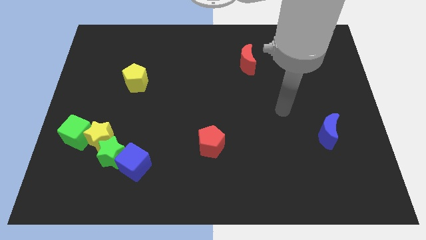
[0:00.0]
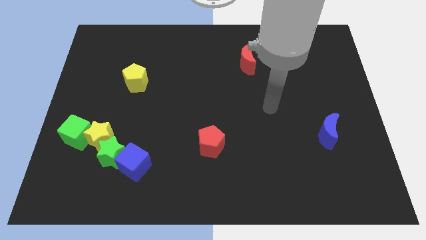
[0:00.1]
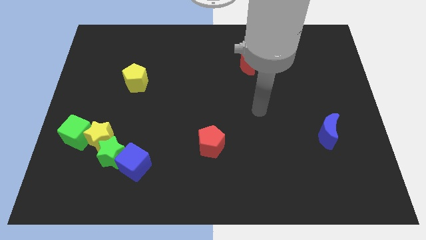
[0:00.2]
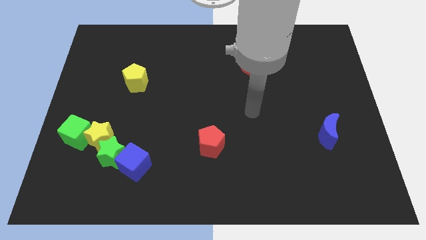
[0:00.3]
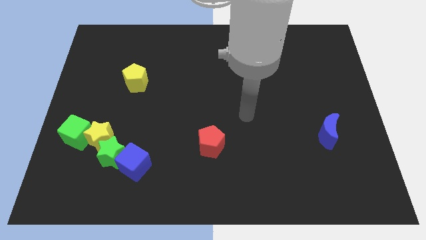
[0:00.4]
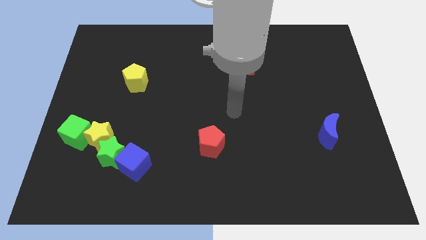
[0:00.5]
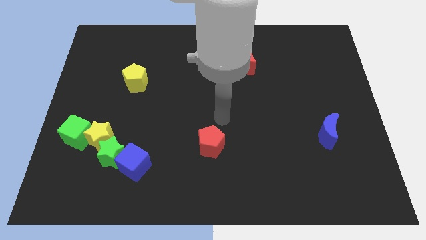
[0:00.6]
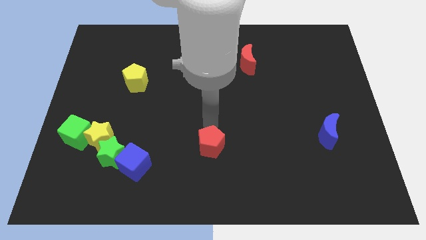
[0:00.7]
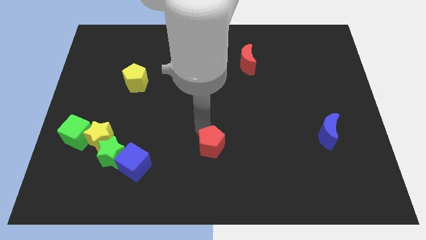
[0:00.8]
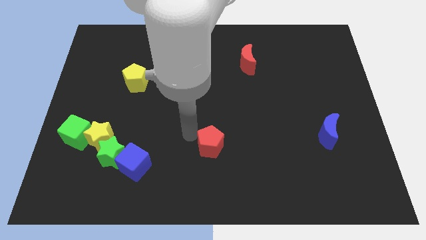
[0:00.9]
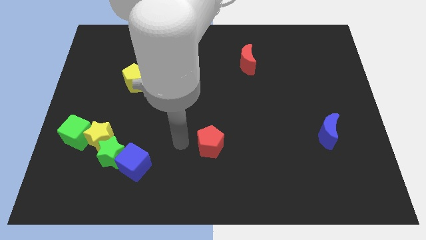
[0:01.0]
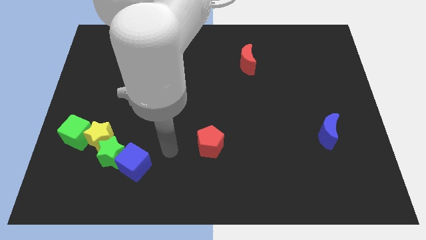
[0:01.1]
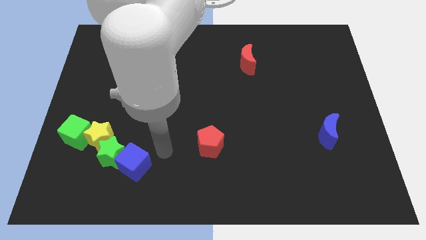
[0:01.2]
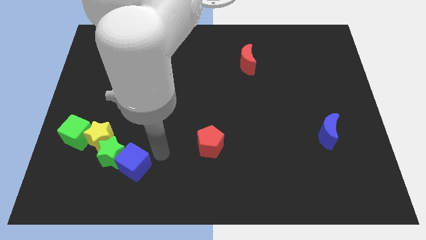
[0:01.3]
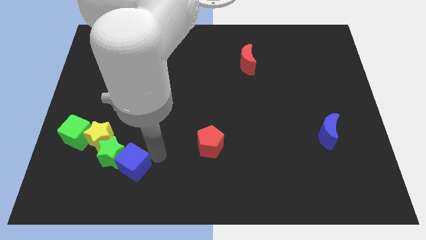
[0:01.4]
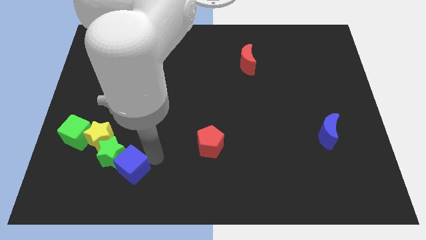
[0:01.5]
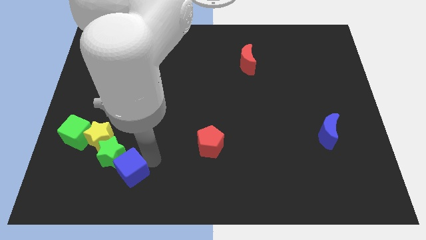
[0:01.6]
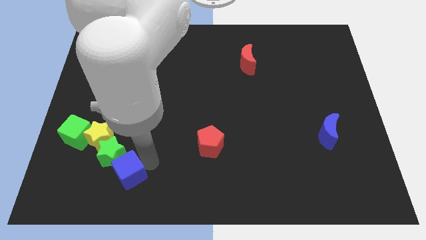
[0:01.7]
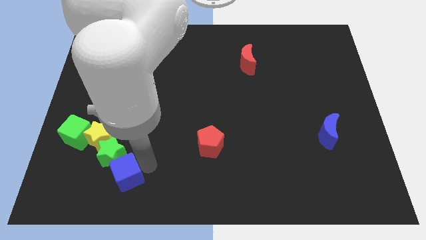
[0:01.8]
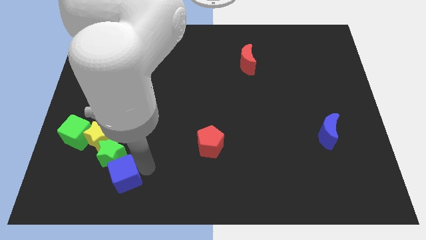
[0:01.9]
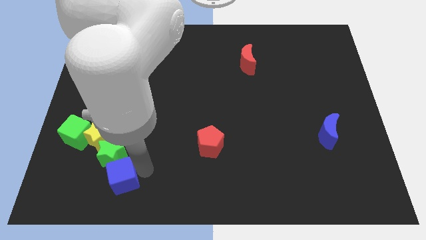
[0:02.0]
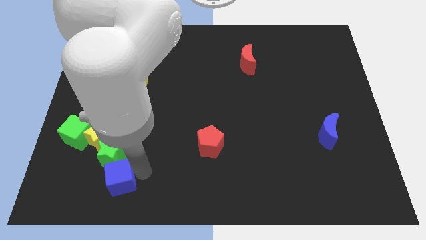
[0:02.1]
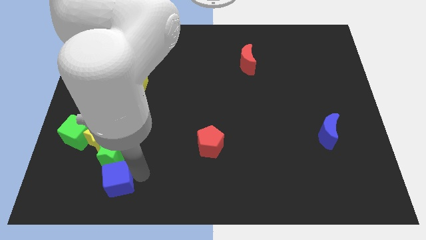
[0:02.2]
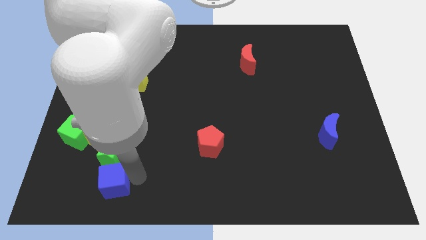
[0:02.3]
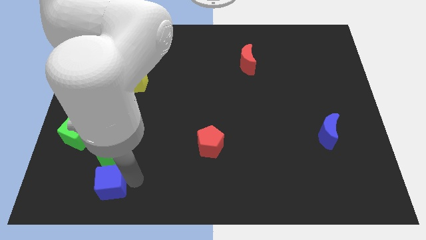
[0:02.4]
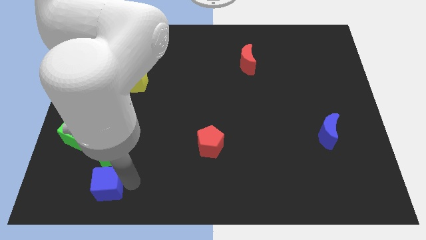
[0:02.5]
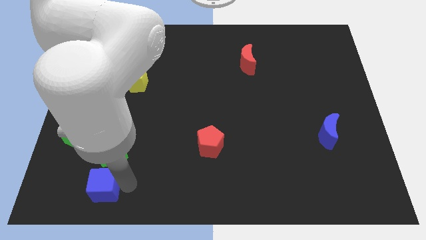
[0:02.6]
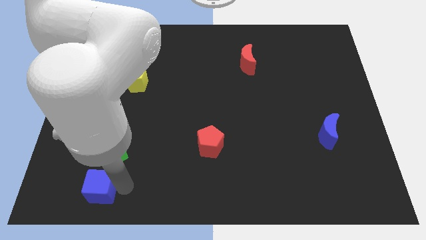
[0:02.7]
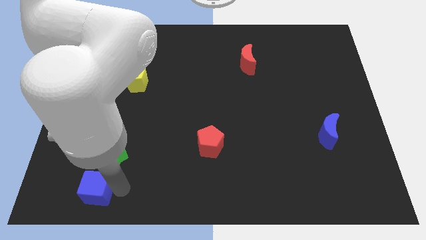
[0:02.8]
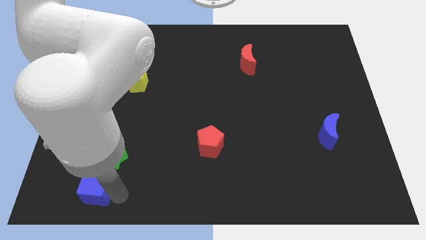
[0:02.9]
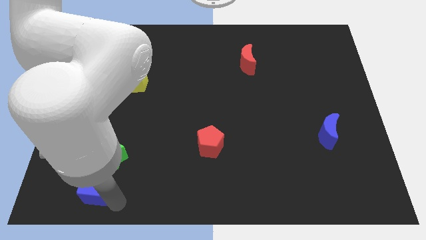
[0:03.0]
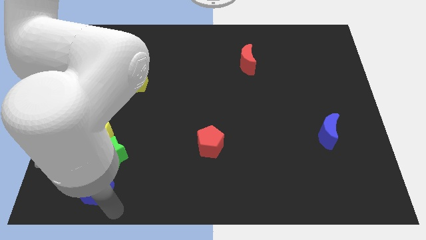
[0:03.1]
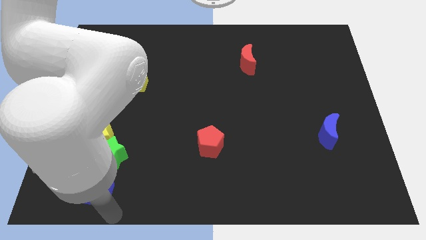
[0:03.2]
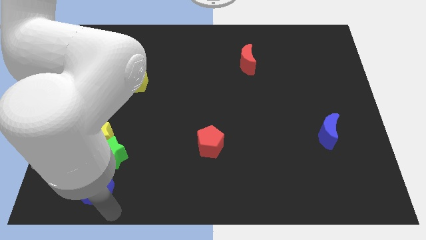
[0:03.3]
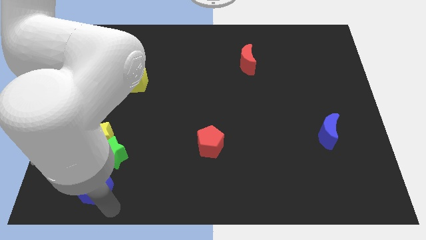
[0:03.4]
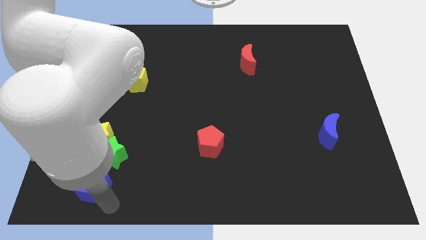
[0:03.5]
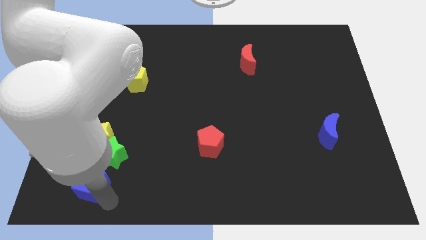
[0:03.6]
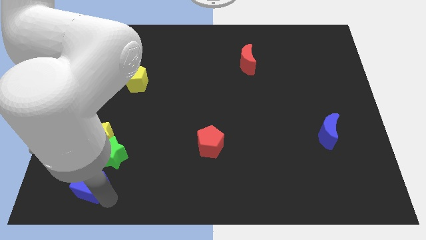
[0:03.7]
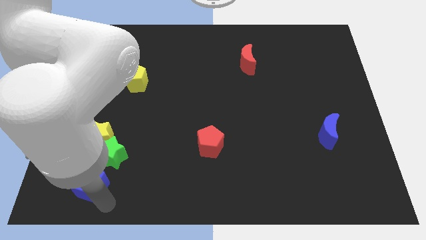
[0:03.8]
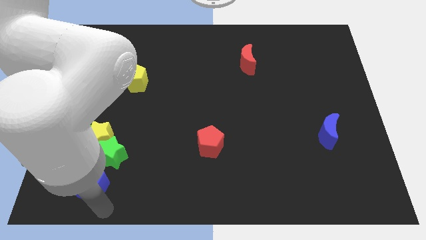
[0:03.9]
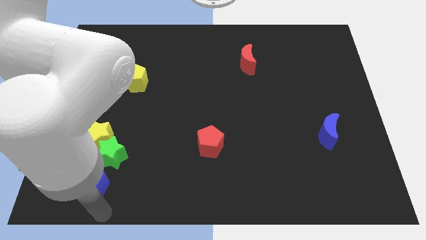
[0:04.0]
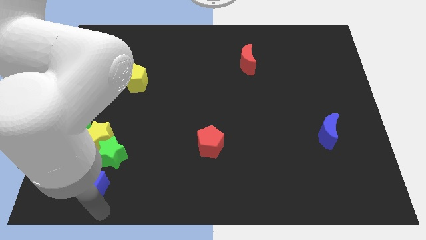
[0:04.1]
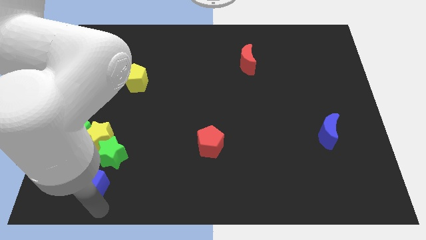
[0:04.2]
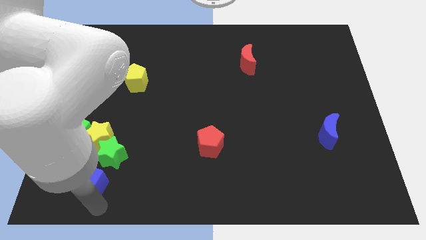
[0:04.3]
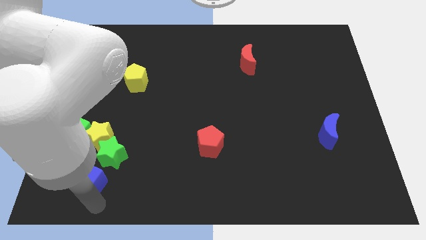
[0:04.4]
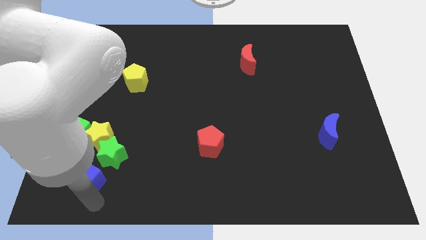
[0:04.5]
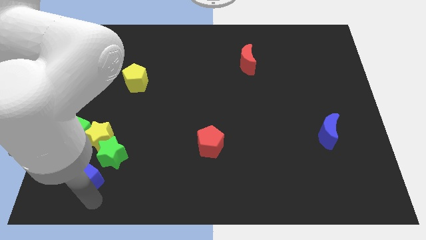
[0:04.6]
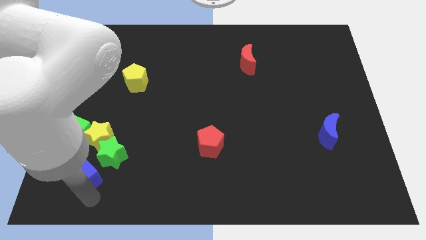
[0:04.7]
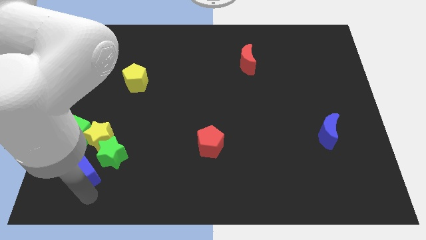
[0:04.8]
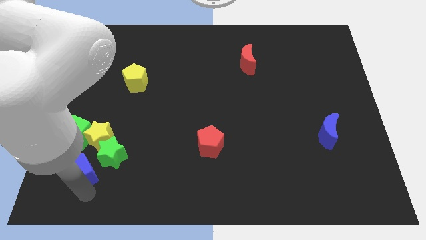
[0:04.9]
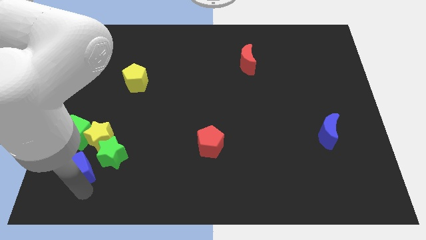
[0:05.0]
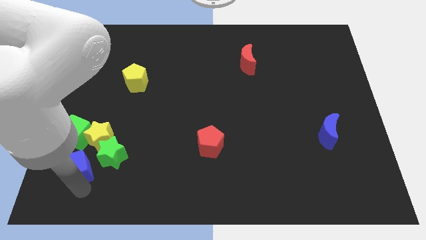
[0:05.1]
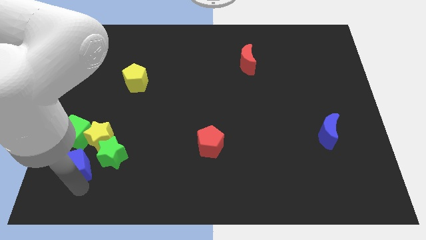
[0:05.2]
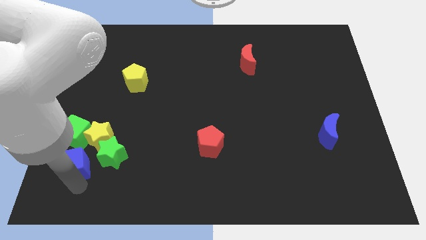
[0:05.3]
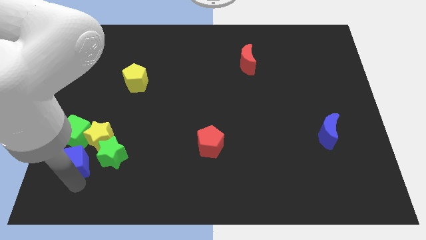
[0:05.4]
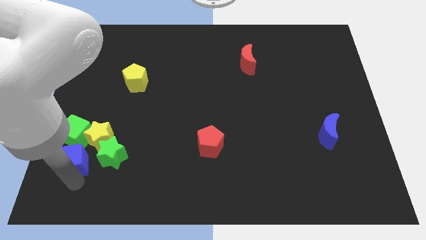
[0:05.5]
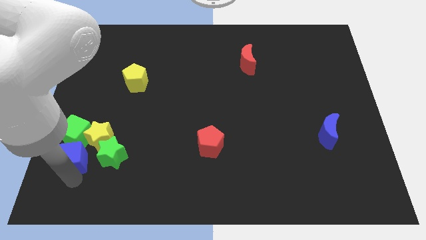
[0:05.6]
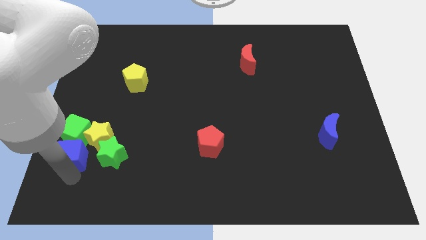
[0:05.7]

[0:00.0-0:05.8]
put the blue cube next to the green cube

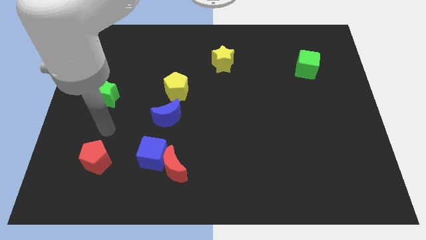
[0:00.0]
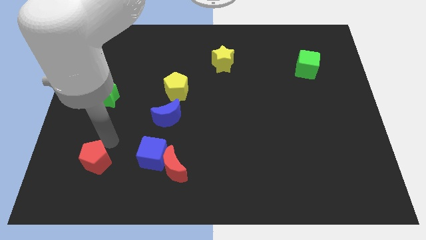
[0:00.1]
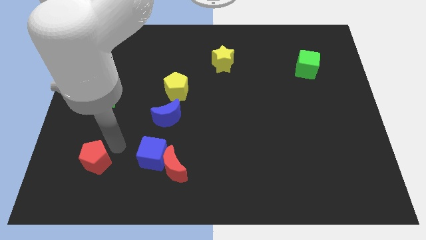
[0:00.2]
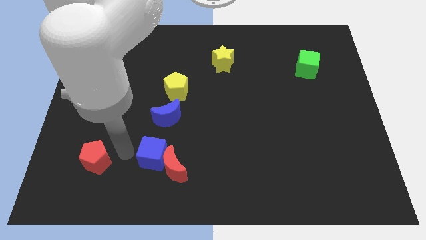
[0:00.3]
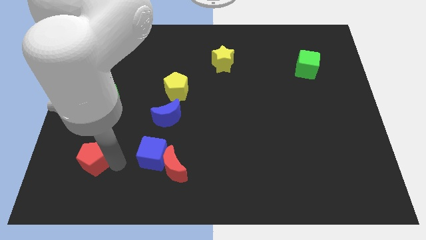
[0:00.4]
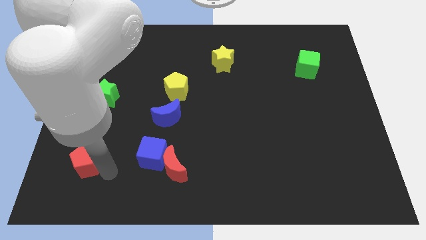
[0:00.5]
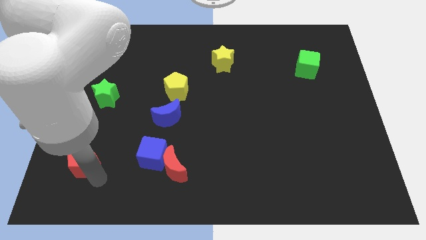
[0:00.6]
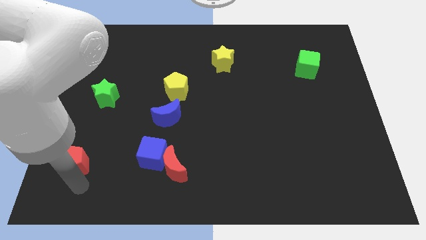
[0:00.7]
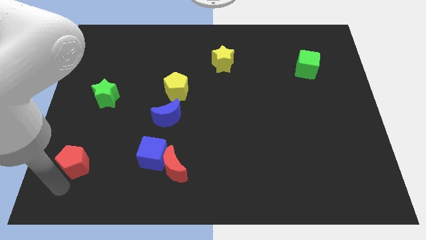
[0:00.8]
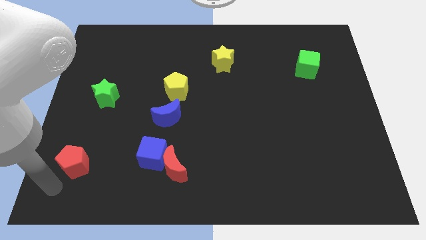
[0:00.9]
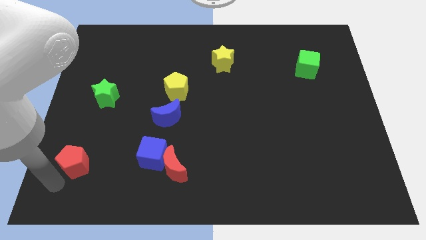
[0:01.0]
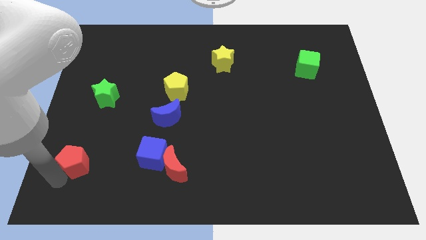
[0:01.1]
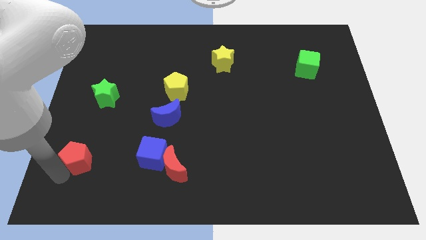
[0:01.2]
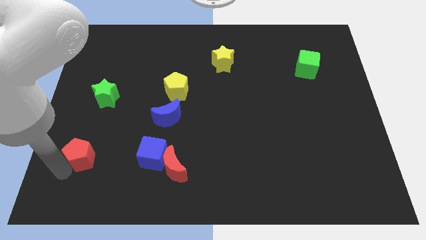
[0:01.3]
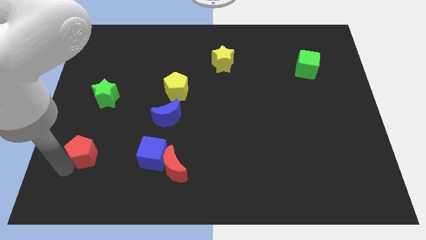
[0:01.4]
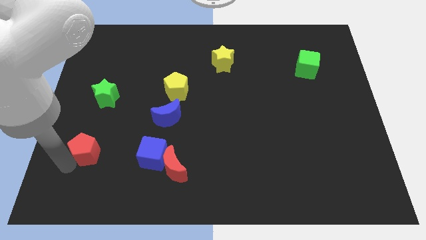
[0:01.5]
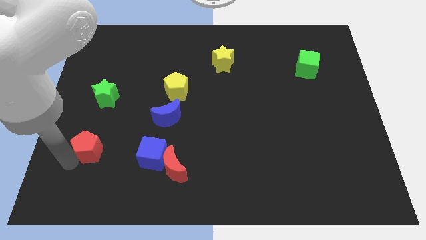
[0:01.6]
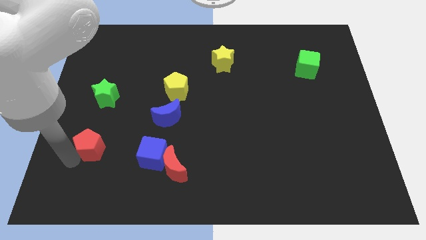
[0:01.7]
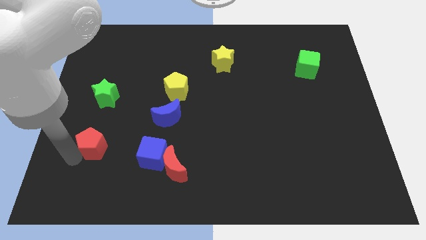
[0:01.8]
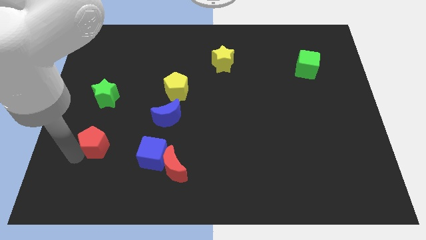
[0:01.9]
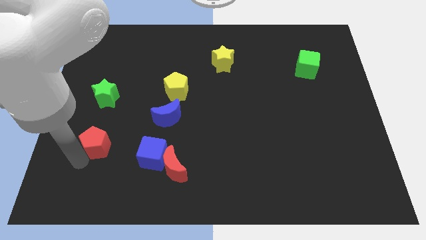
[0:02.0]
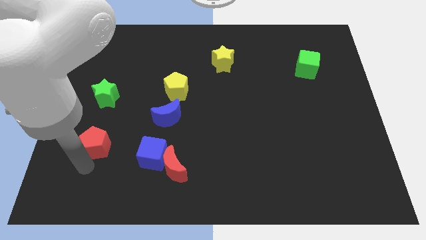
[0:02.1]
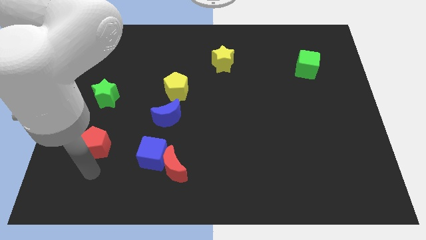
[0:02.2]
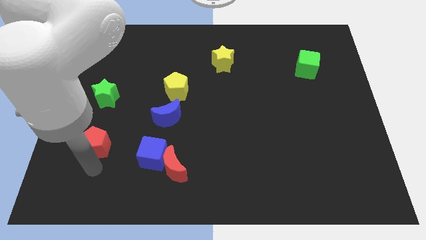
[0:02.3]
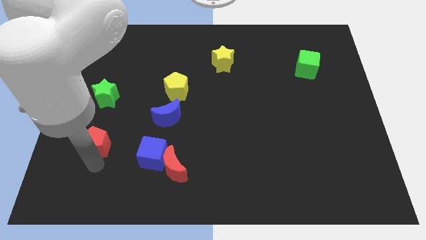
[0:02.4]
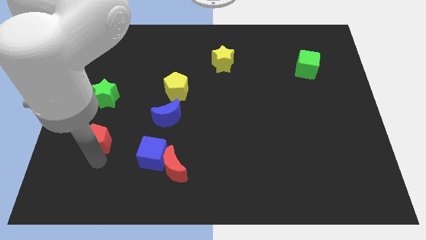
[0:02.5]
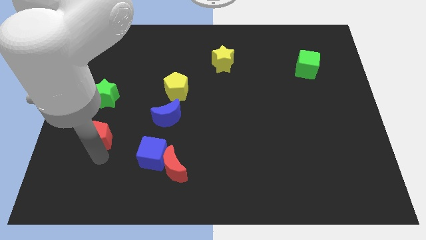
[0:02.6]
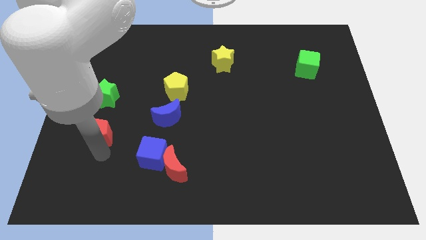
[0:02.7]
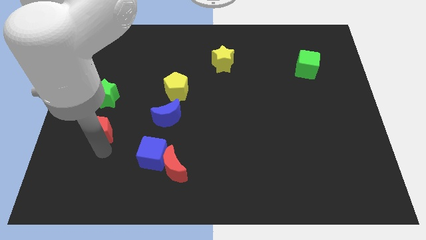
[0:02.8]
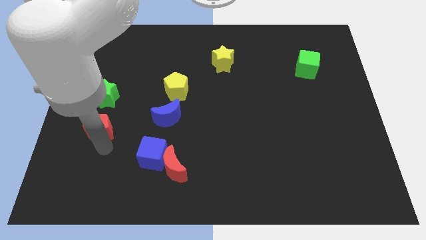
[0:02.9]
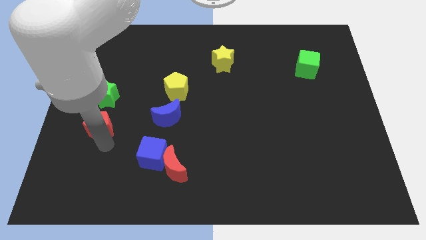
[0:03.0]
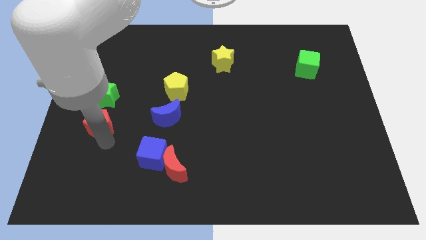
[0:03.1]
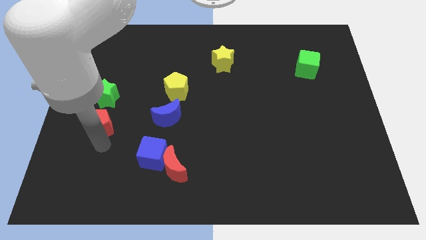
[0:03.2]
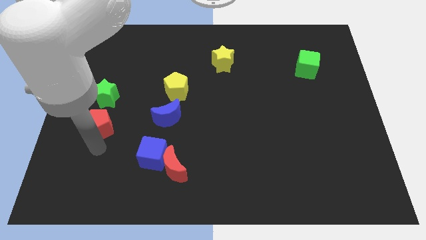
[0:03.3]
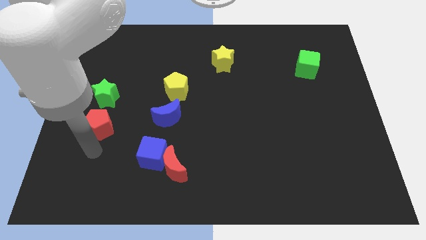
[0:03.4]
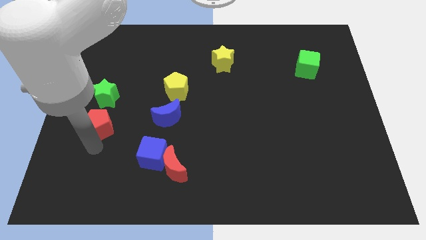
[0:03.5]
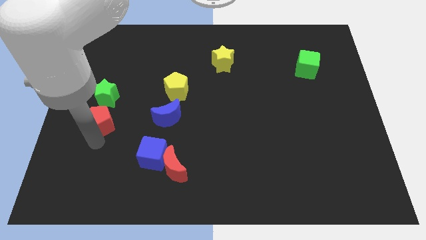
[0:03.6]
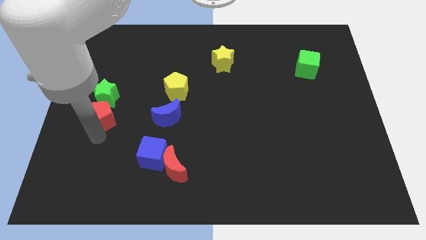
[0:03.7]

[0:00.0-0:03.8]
put the red pentagon to the green star
